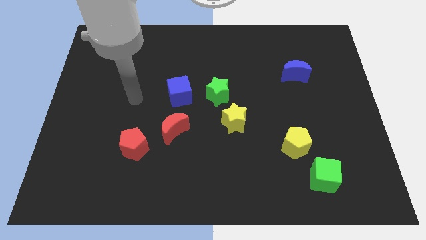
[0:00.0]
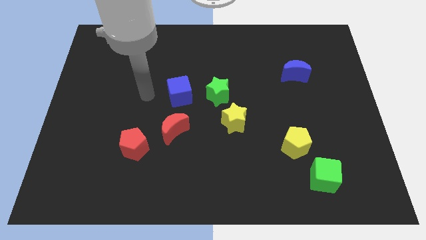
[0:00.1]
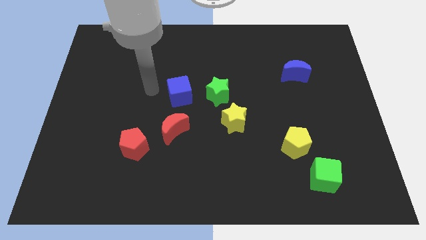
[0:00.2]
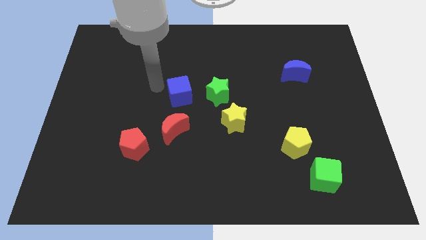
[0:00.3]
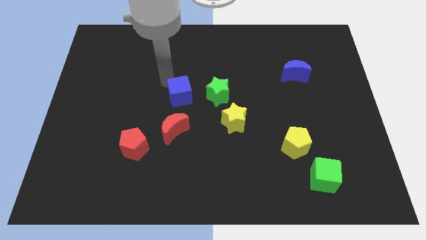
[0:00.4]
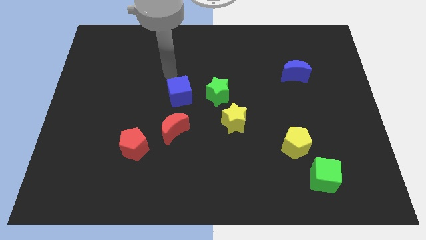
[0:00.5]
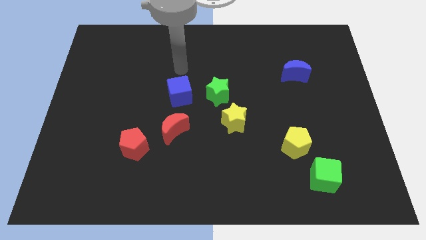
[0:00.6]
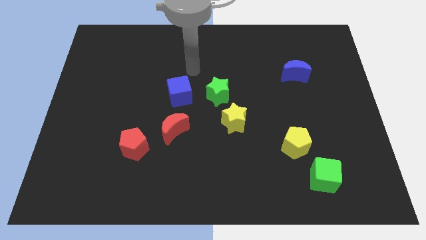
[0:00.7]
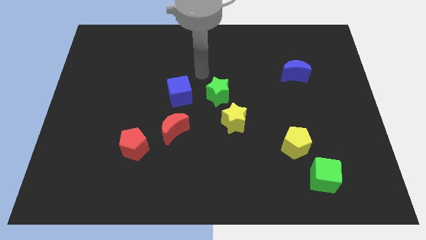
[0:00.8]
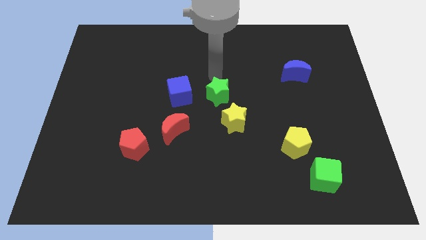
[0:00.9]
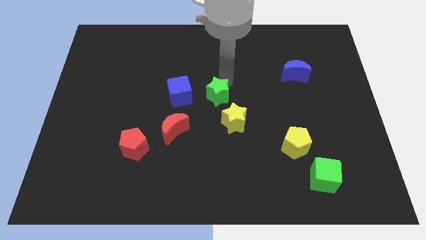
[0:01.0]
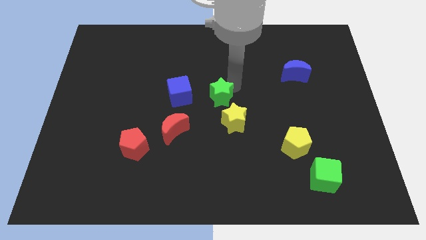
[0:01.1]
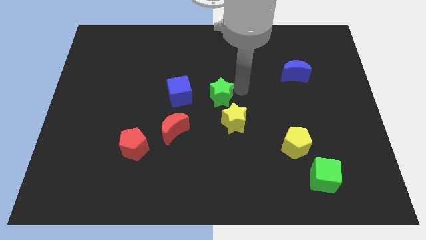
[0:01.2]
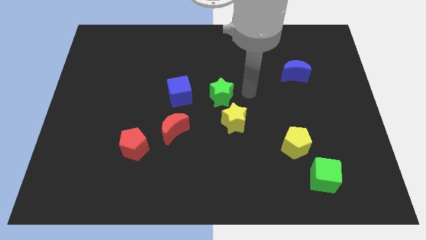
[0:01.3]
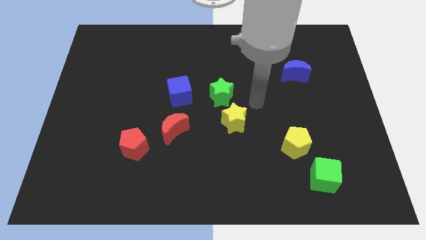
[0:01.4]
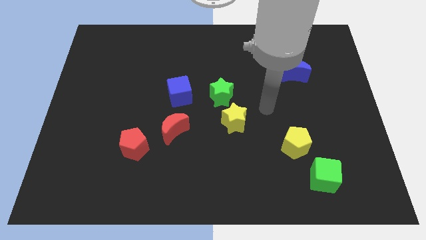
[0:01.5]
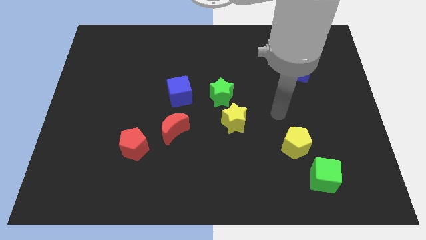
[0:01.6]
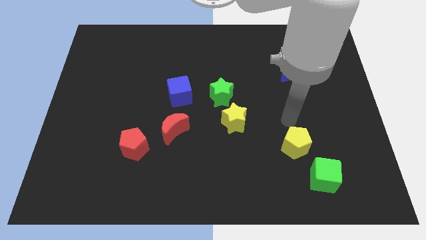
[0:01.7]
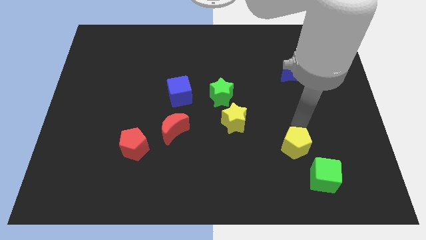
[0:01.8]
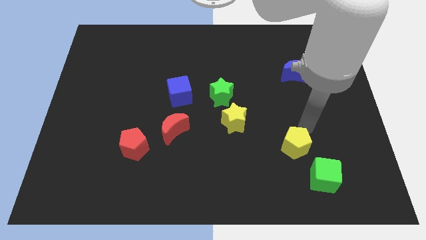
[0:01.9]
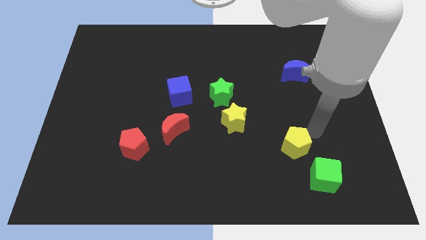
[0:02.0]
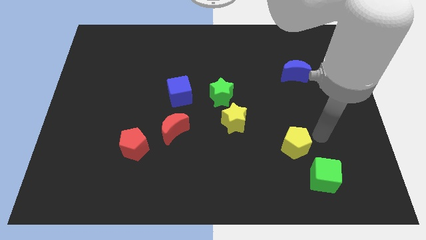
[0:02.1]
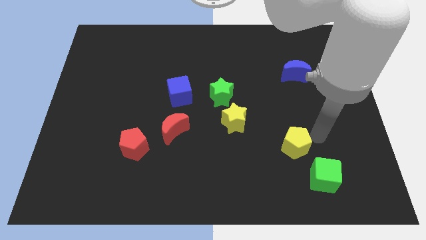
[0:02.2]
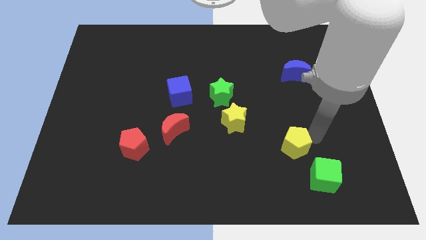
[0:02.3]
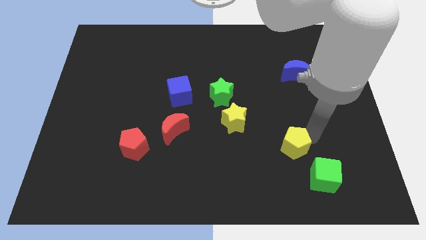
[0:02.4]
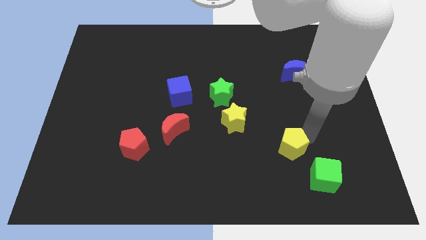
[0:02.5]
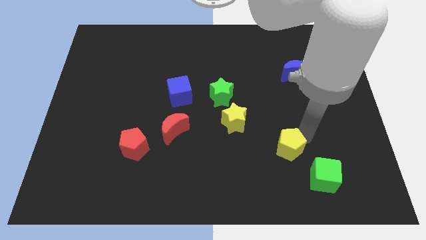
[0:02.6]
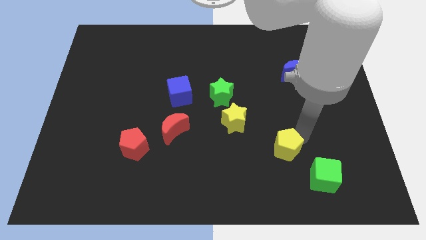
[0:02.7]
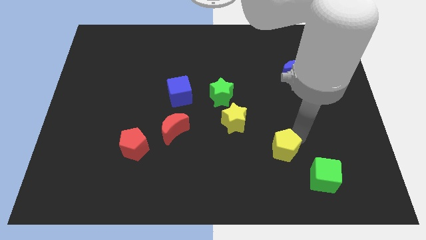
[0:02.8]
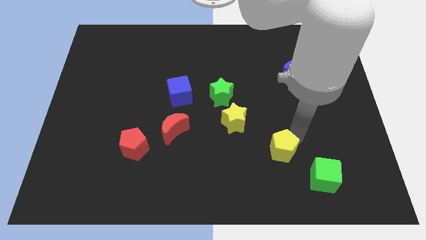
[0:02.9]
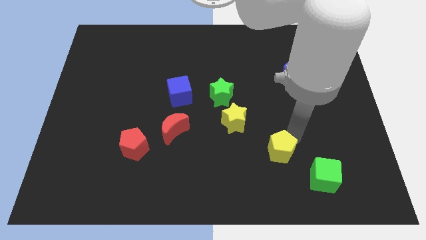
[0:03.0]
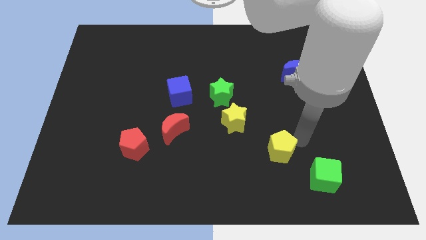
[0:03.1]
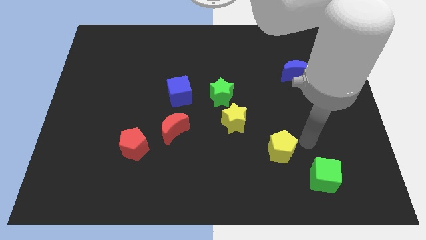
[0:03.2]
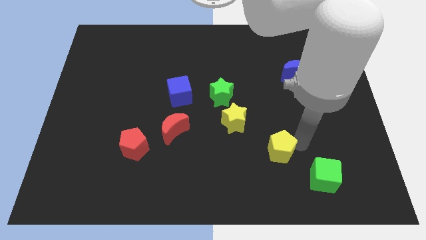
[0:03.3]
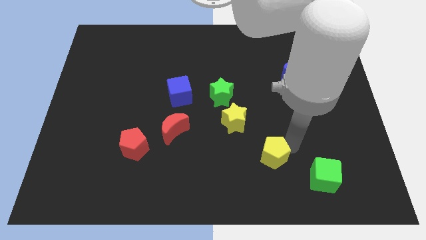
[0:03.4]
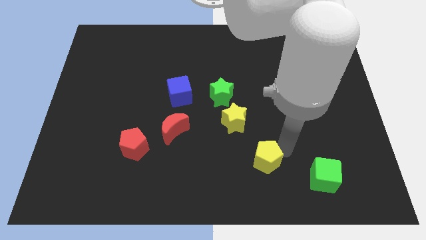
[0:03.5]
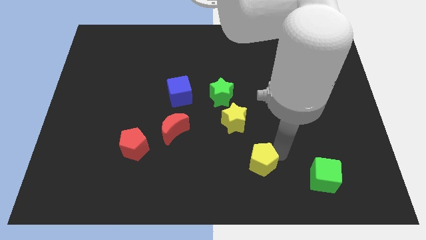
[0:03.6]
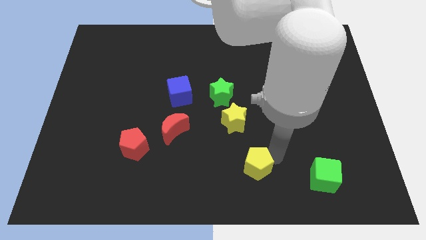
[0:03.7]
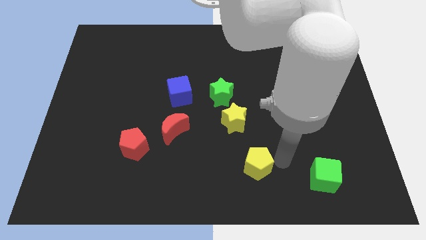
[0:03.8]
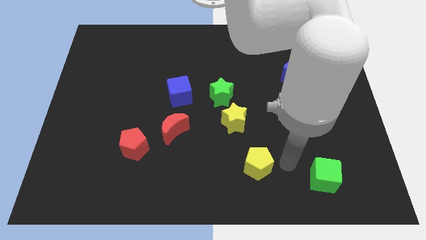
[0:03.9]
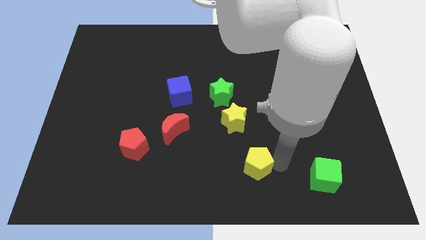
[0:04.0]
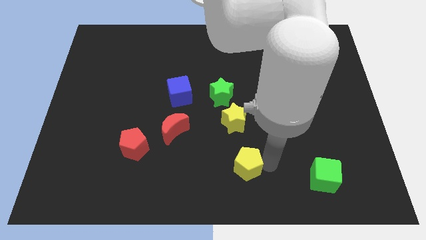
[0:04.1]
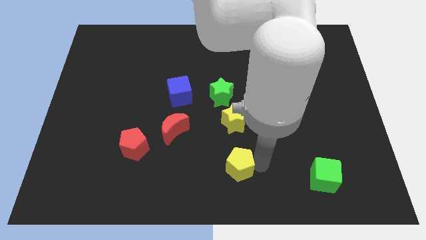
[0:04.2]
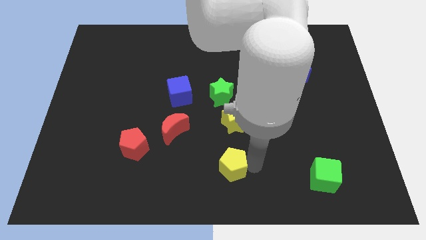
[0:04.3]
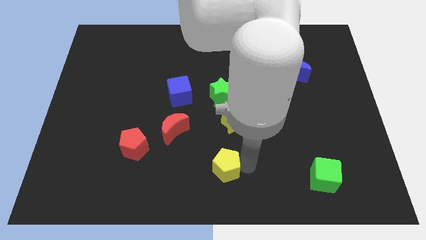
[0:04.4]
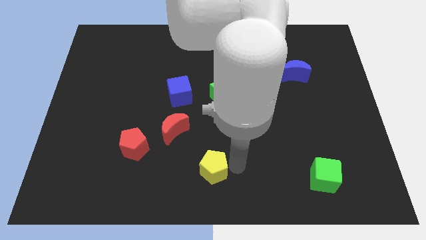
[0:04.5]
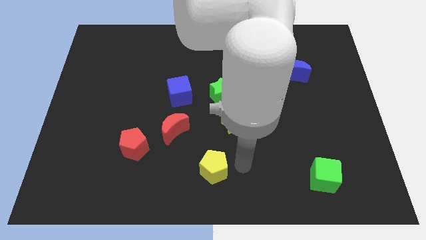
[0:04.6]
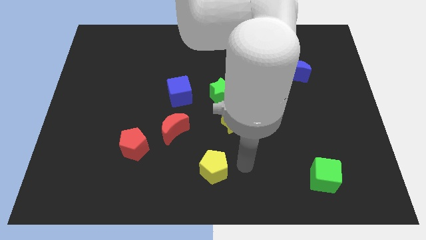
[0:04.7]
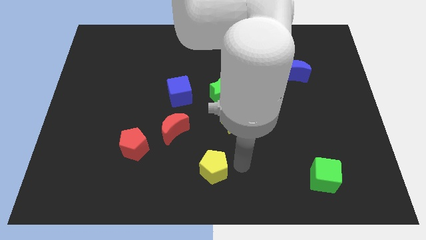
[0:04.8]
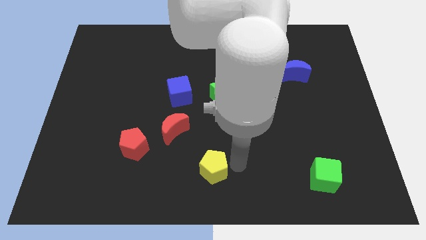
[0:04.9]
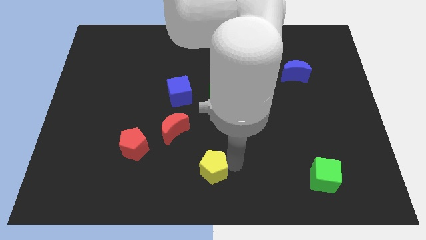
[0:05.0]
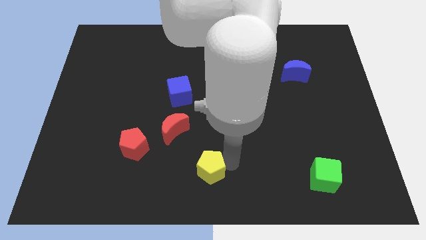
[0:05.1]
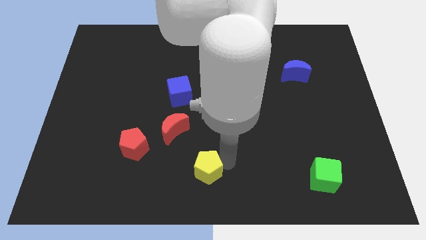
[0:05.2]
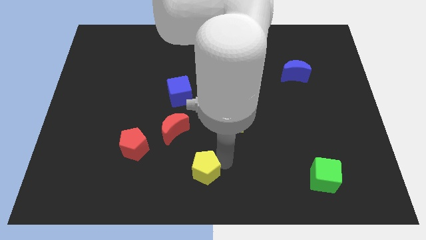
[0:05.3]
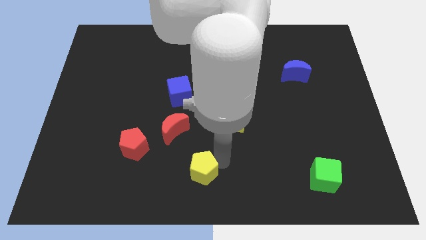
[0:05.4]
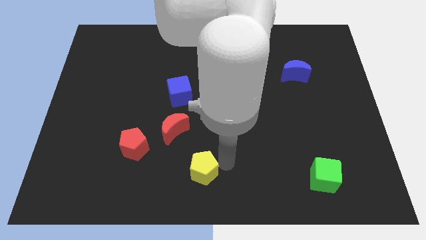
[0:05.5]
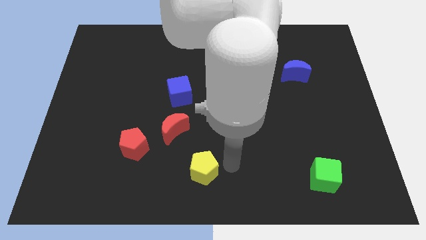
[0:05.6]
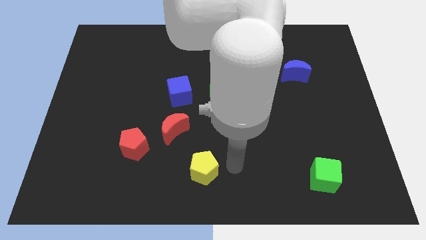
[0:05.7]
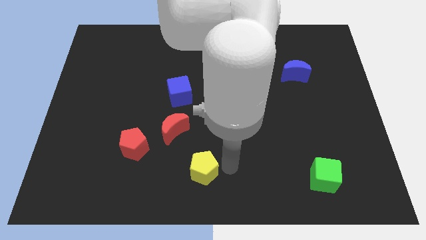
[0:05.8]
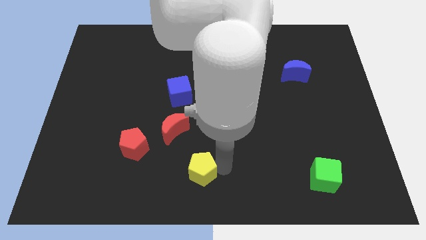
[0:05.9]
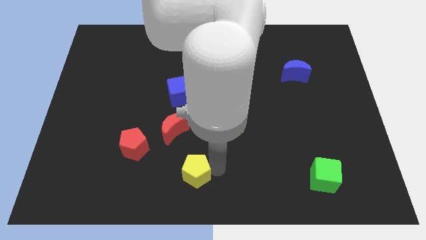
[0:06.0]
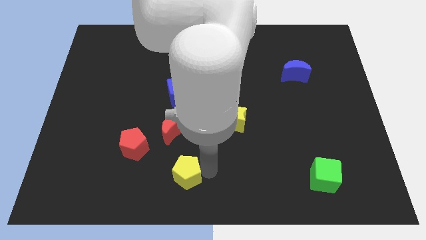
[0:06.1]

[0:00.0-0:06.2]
put the yellow pentagon to the bottom of the red moon
